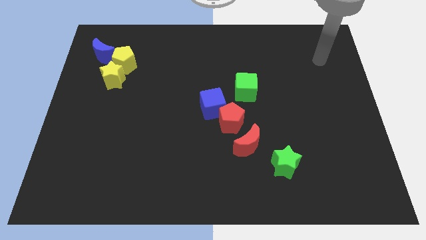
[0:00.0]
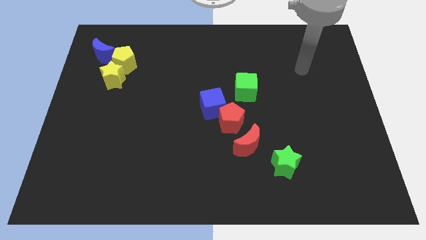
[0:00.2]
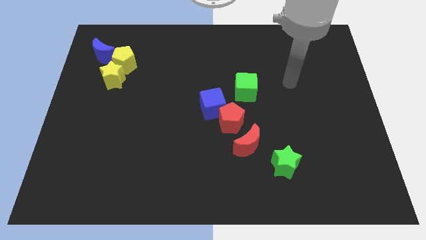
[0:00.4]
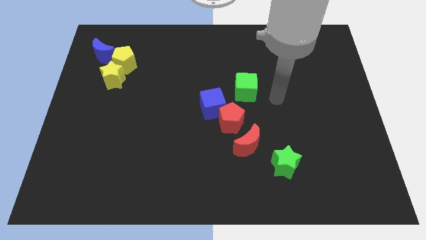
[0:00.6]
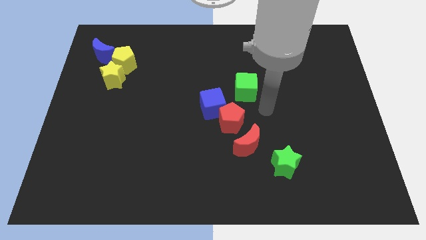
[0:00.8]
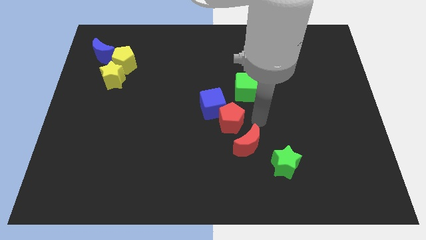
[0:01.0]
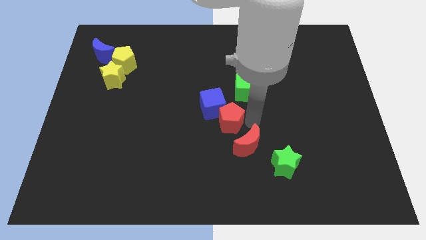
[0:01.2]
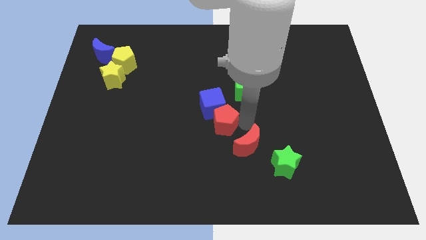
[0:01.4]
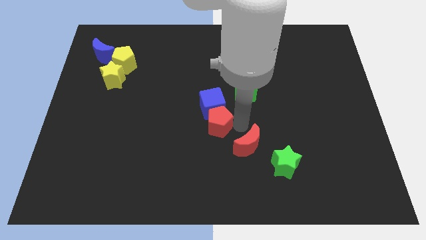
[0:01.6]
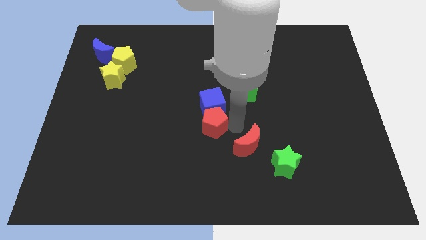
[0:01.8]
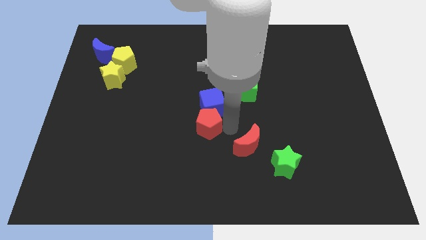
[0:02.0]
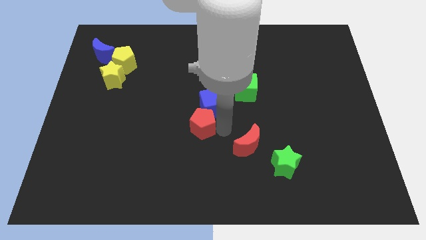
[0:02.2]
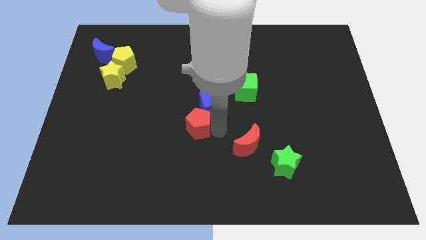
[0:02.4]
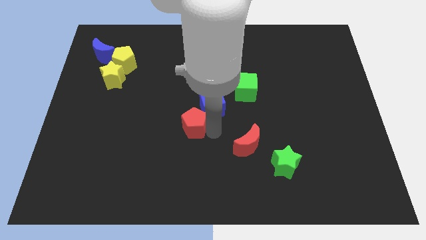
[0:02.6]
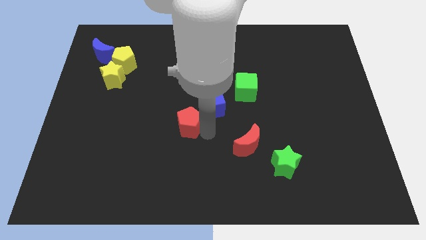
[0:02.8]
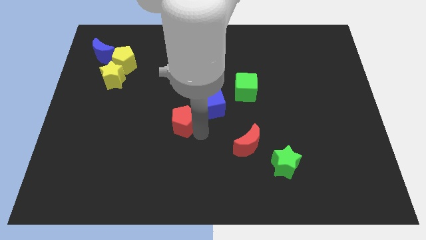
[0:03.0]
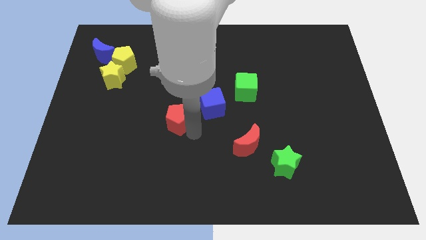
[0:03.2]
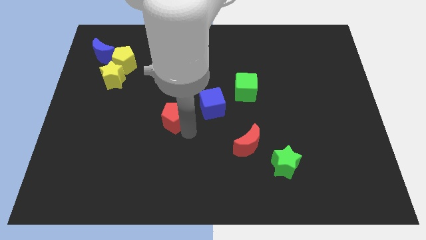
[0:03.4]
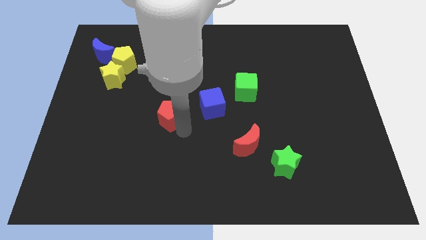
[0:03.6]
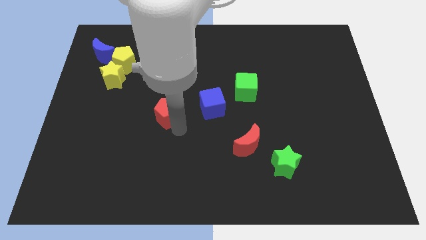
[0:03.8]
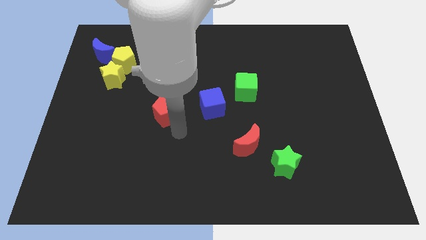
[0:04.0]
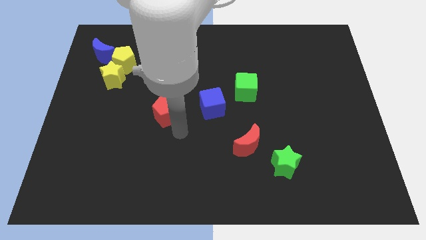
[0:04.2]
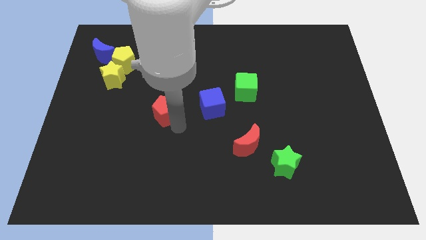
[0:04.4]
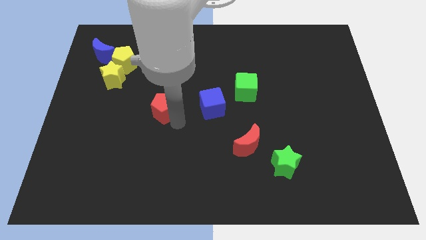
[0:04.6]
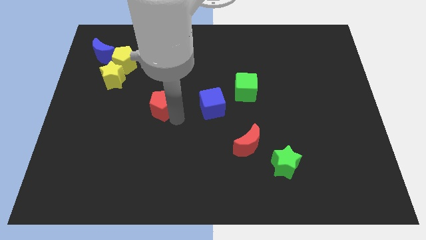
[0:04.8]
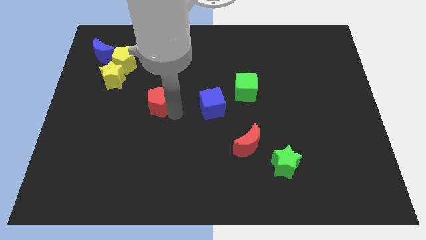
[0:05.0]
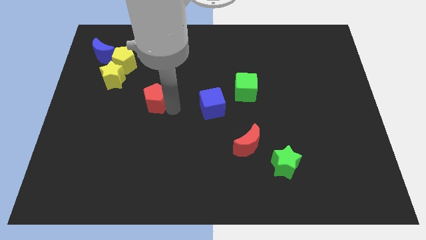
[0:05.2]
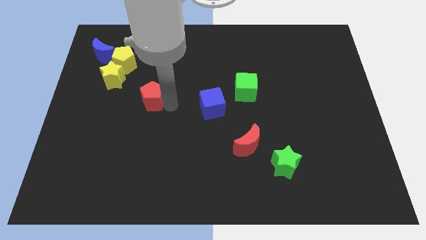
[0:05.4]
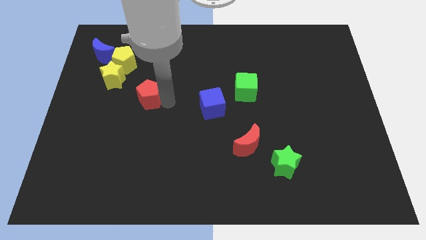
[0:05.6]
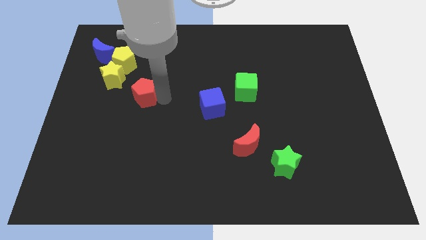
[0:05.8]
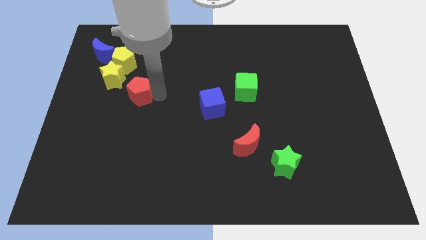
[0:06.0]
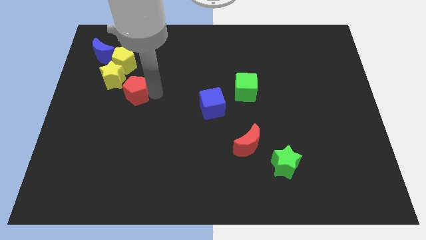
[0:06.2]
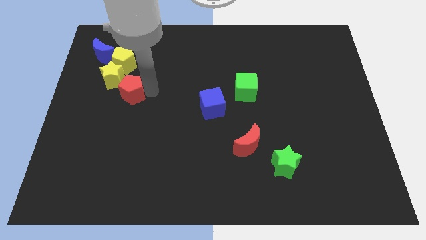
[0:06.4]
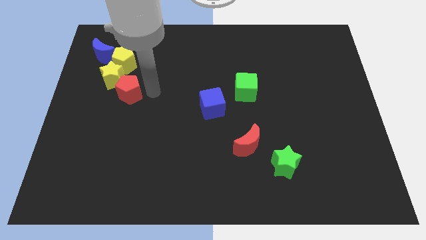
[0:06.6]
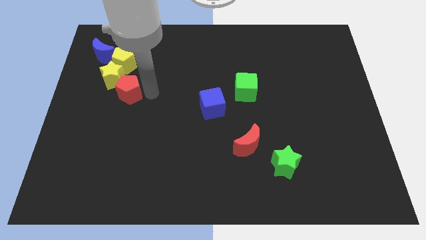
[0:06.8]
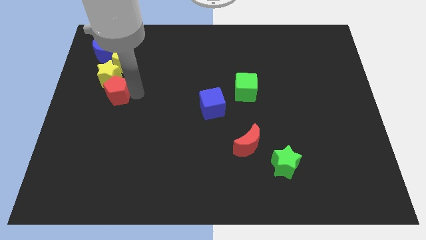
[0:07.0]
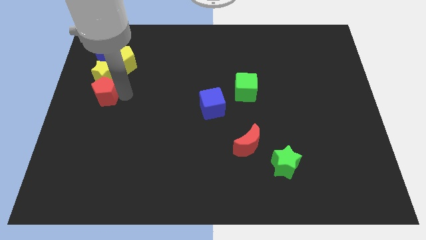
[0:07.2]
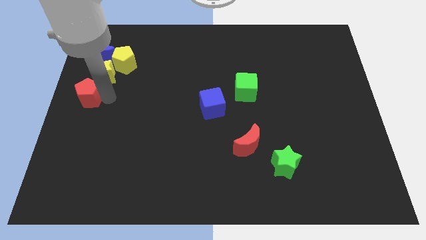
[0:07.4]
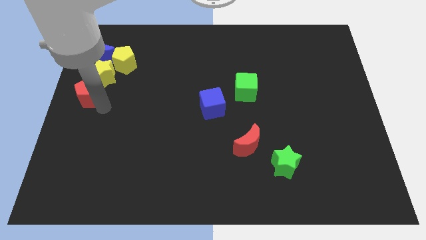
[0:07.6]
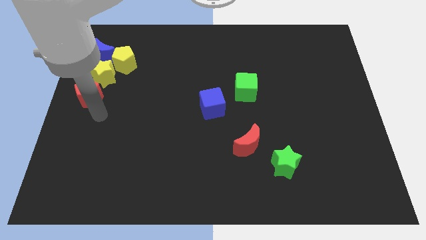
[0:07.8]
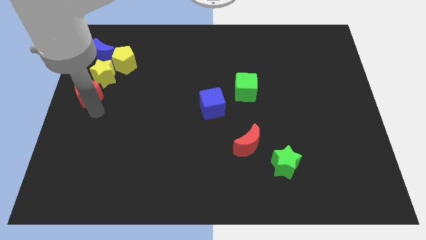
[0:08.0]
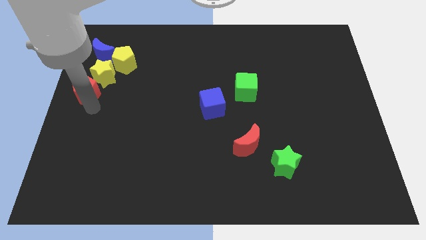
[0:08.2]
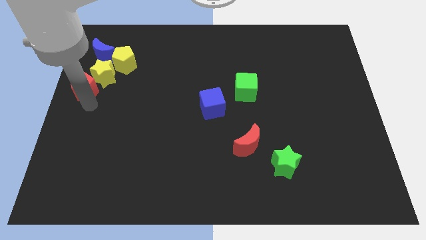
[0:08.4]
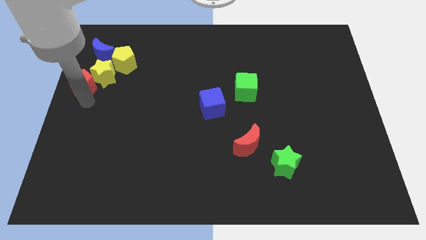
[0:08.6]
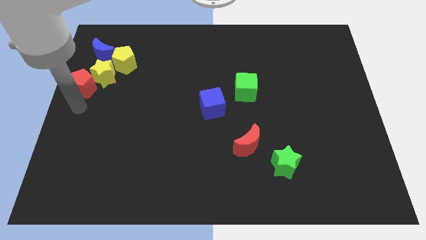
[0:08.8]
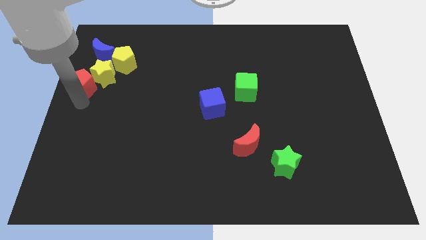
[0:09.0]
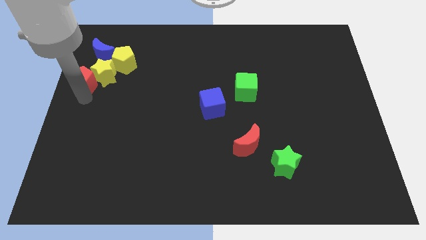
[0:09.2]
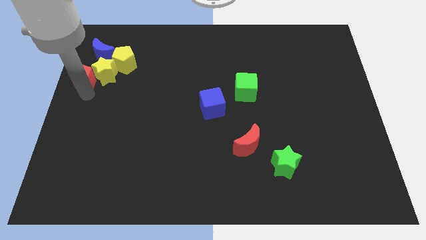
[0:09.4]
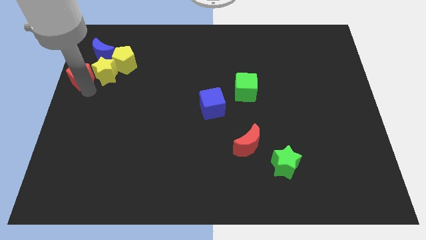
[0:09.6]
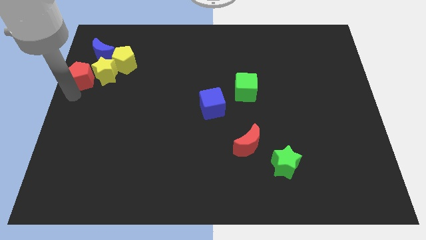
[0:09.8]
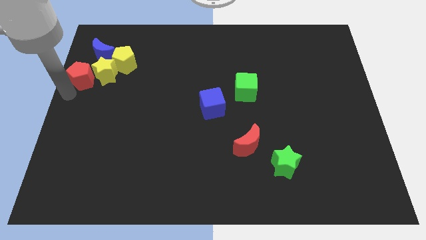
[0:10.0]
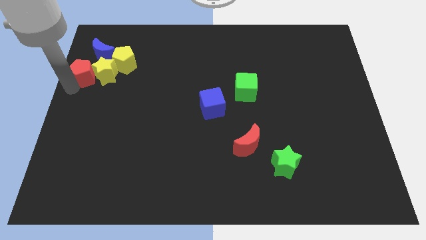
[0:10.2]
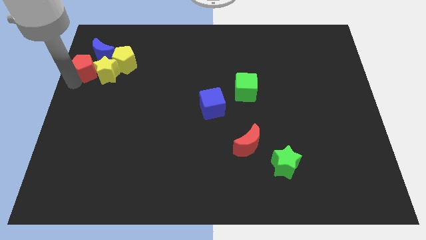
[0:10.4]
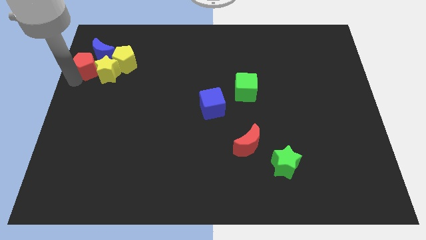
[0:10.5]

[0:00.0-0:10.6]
put the red pentagon towards the blue moon

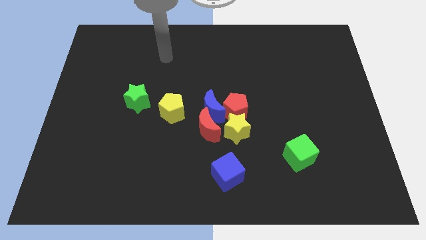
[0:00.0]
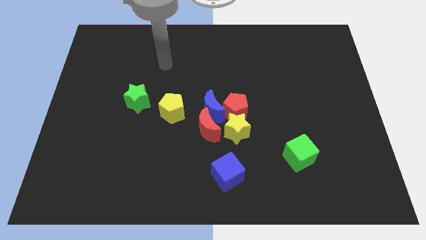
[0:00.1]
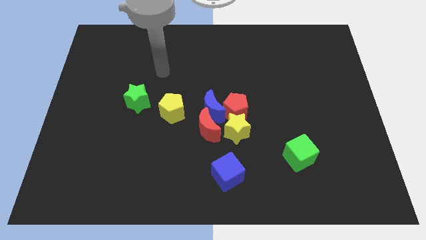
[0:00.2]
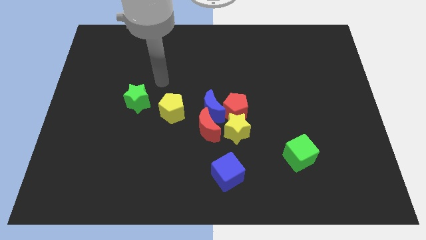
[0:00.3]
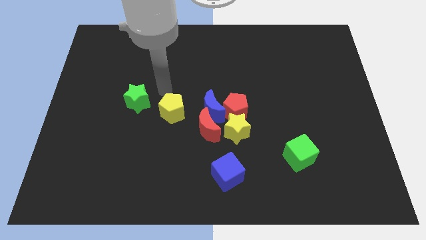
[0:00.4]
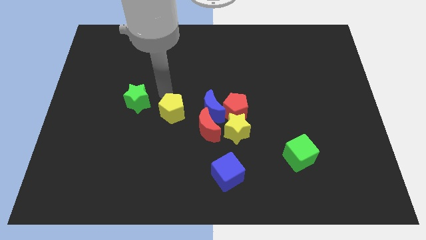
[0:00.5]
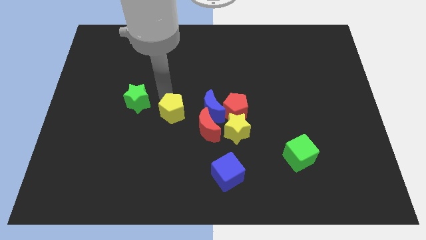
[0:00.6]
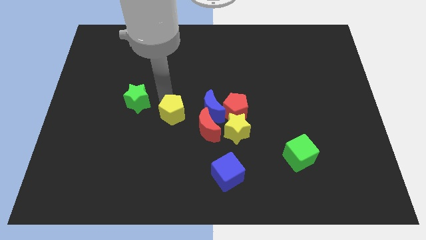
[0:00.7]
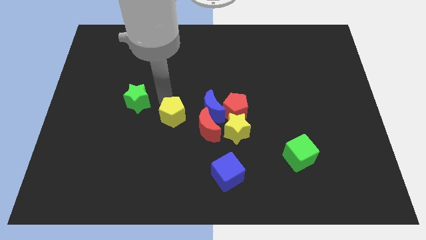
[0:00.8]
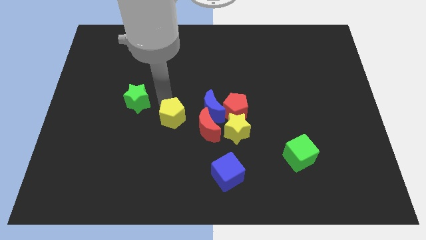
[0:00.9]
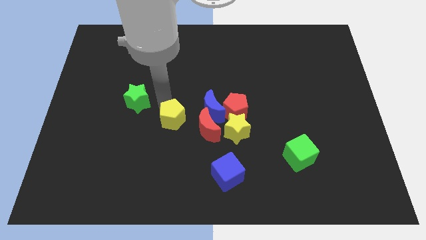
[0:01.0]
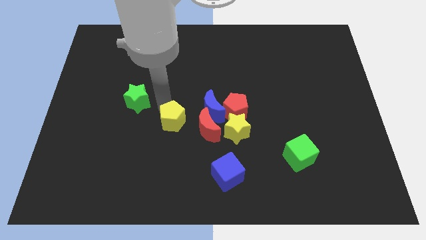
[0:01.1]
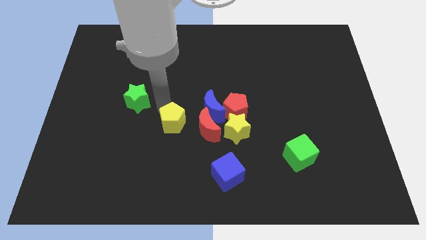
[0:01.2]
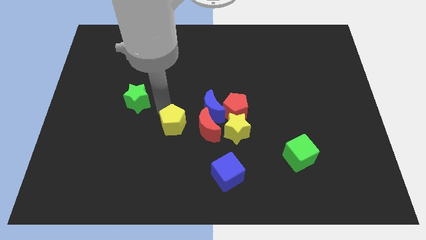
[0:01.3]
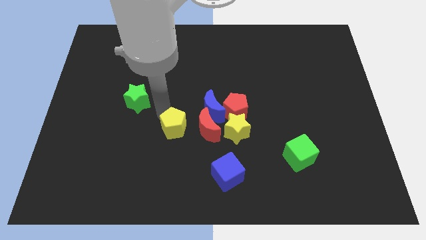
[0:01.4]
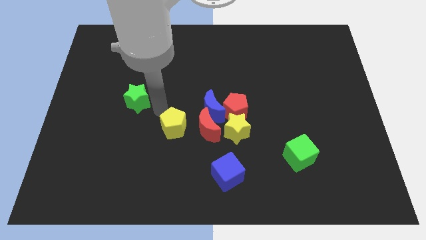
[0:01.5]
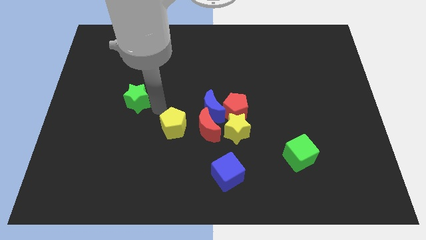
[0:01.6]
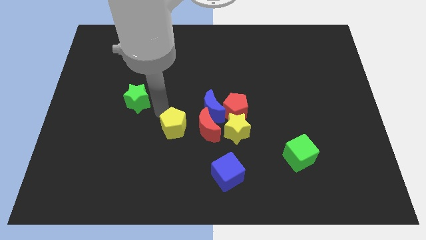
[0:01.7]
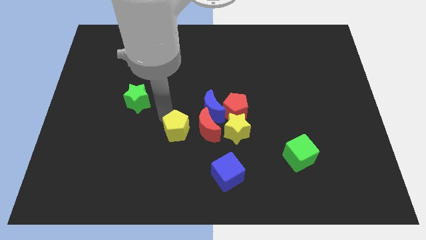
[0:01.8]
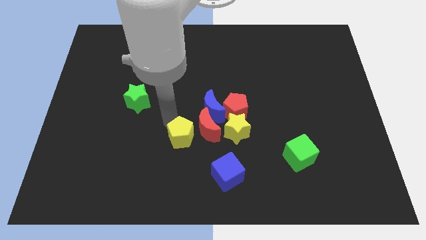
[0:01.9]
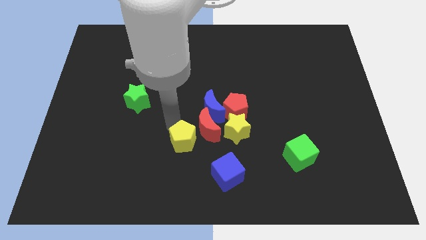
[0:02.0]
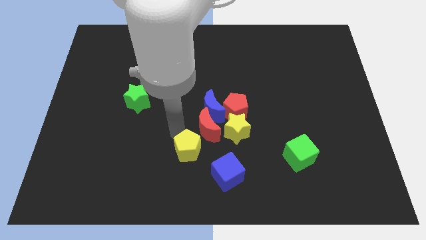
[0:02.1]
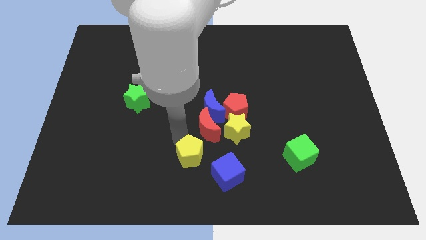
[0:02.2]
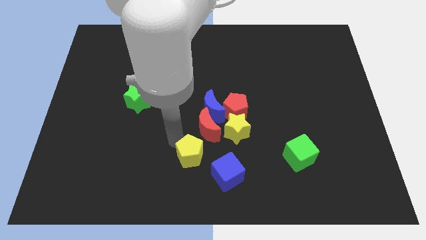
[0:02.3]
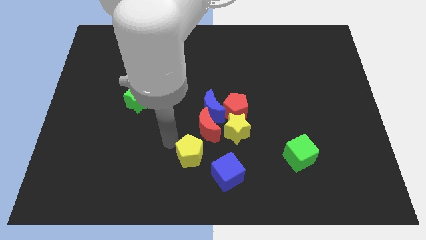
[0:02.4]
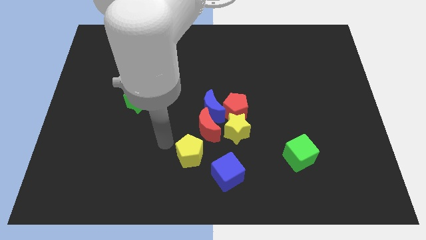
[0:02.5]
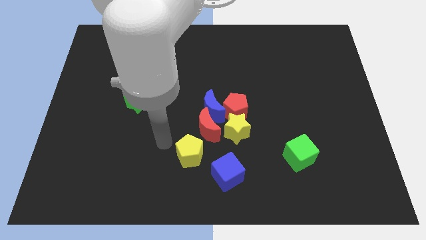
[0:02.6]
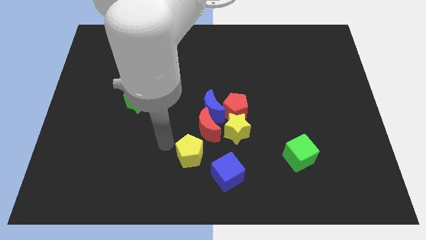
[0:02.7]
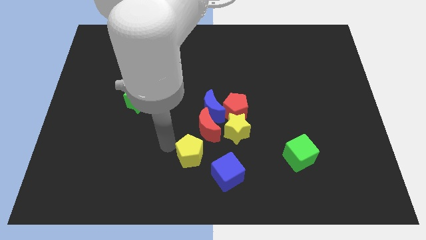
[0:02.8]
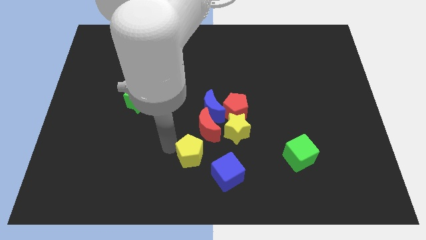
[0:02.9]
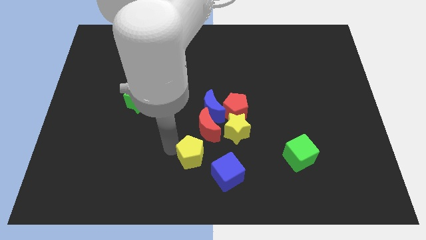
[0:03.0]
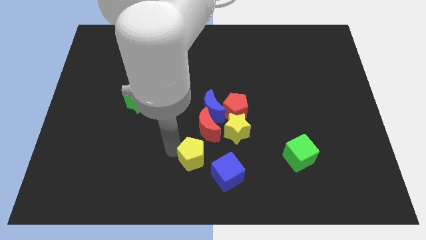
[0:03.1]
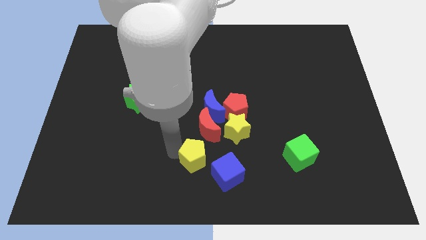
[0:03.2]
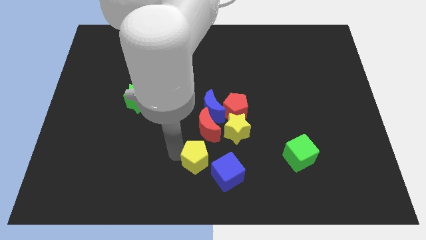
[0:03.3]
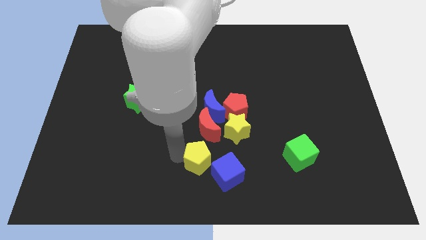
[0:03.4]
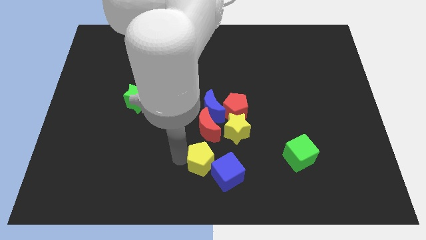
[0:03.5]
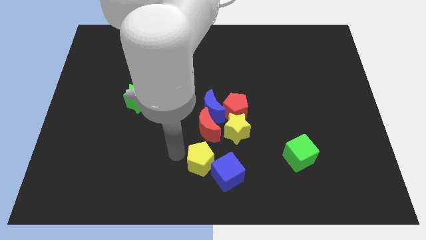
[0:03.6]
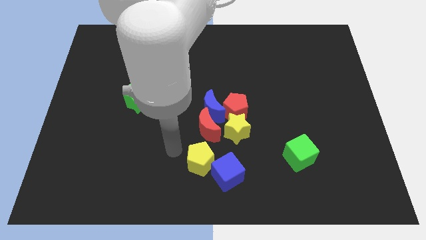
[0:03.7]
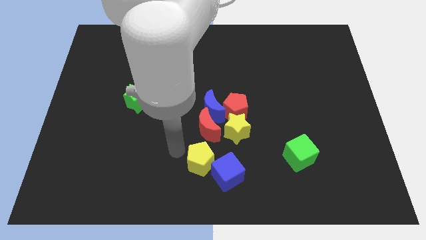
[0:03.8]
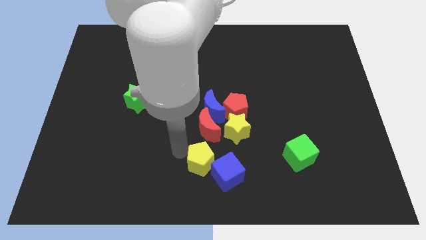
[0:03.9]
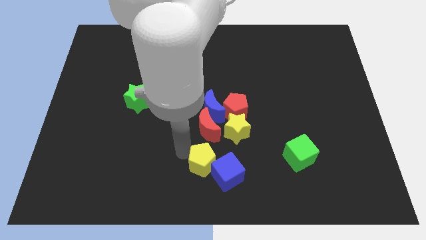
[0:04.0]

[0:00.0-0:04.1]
push the yellow pentagon next to the blue cube
